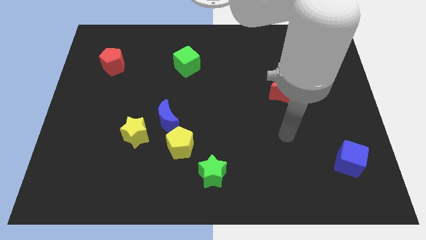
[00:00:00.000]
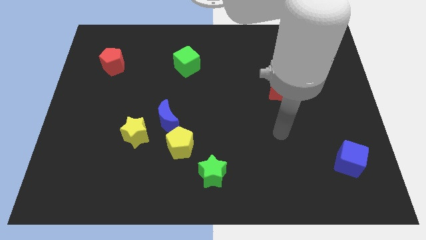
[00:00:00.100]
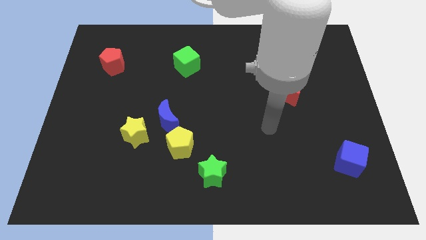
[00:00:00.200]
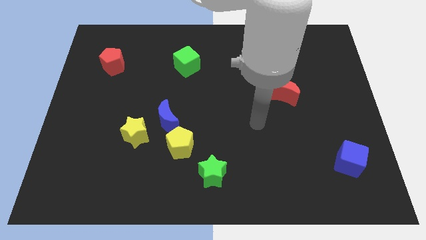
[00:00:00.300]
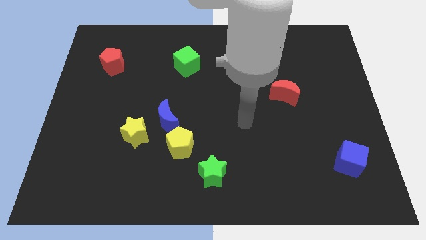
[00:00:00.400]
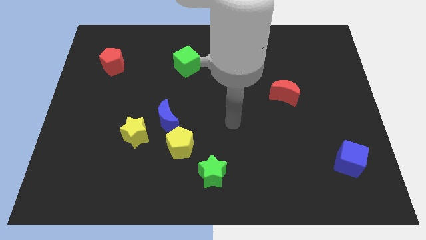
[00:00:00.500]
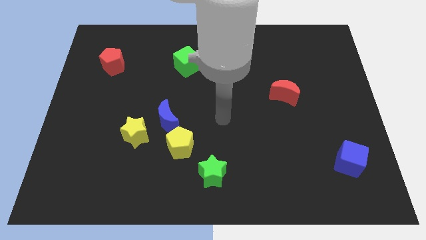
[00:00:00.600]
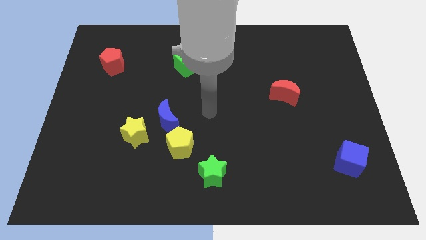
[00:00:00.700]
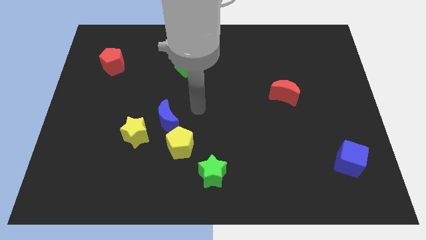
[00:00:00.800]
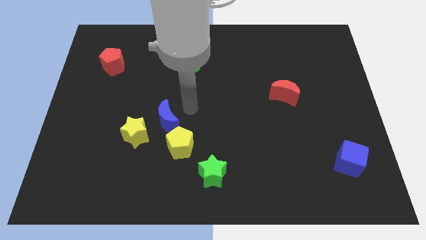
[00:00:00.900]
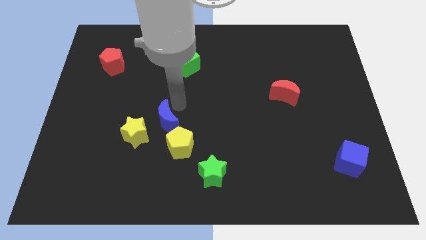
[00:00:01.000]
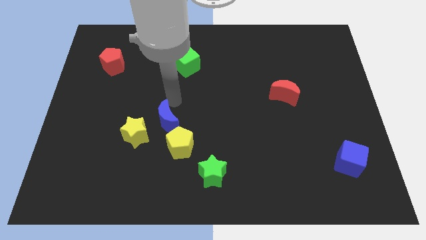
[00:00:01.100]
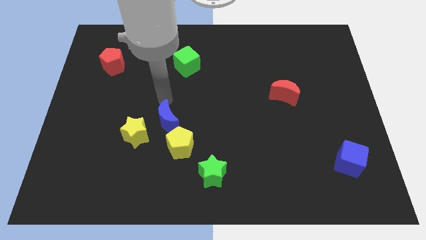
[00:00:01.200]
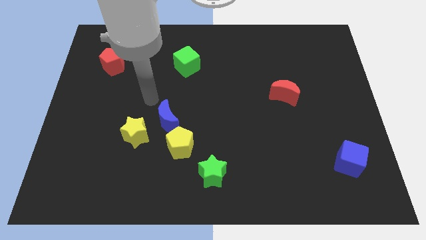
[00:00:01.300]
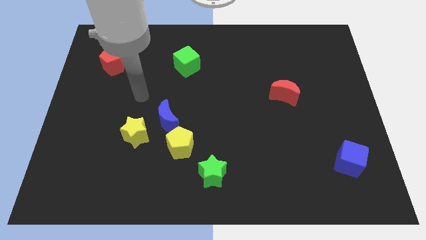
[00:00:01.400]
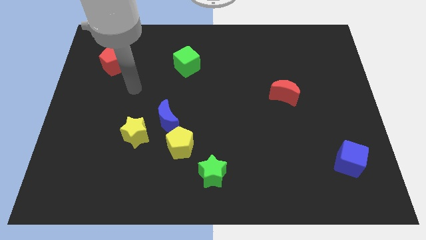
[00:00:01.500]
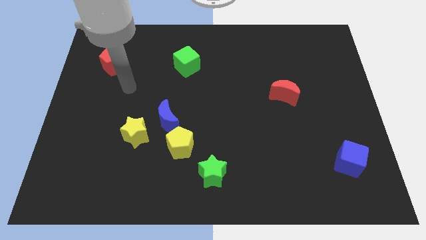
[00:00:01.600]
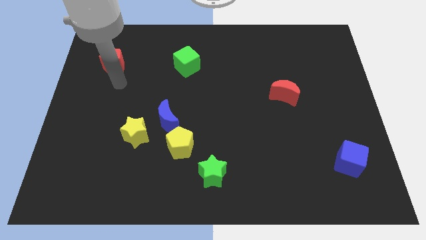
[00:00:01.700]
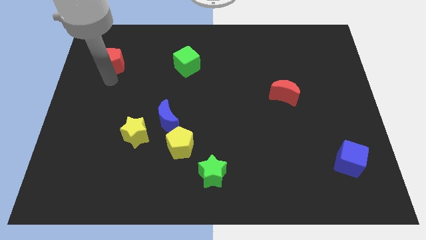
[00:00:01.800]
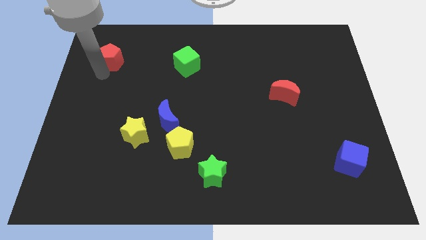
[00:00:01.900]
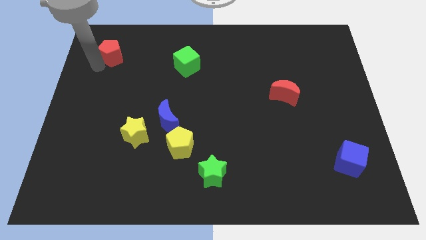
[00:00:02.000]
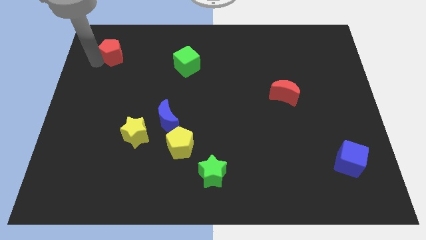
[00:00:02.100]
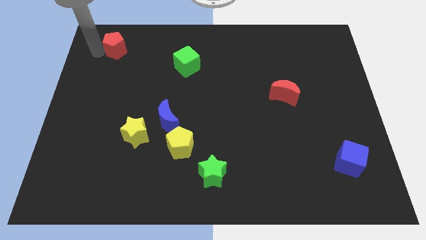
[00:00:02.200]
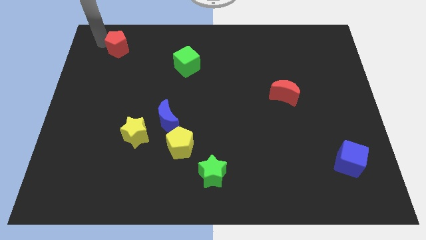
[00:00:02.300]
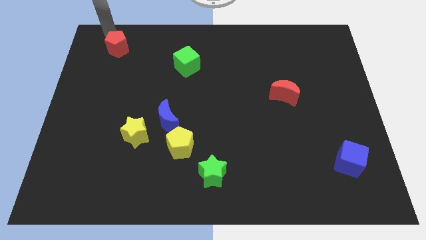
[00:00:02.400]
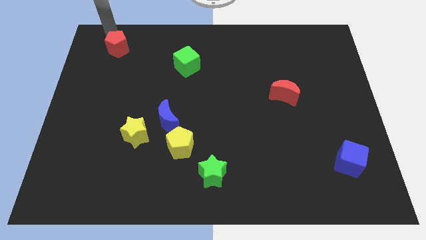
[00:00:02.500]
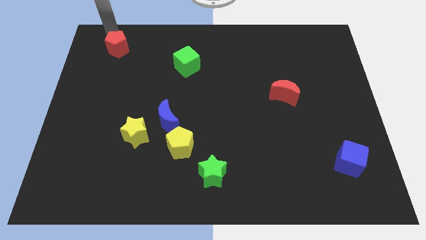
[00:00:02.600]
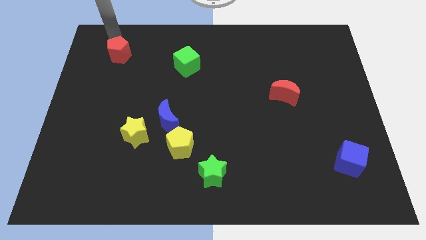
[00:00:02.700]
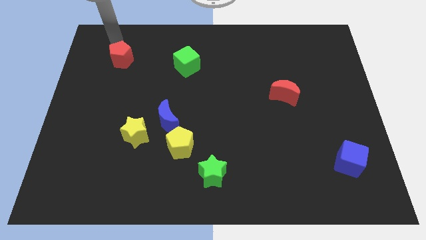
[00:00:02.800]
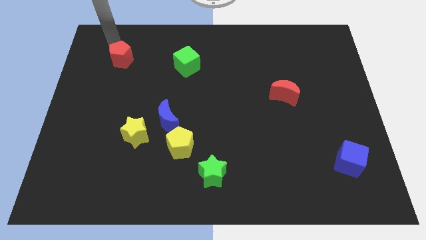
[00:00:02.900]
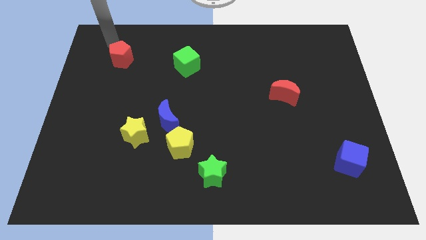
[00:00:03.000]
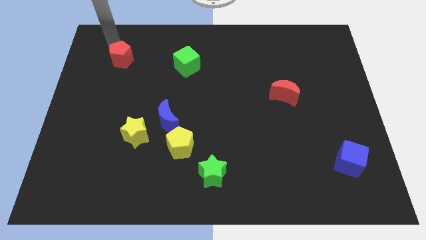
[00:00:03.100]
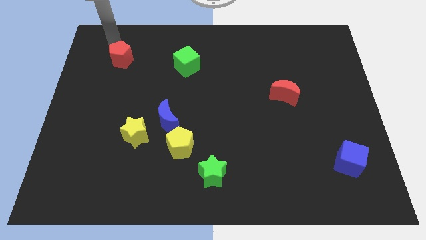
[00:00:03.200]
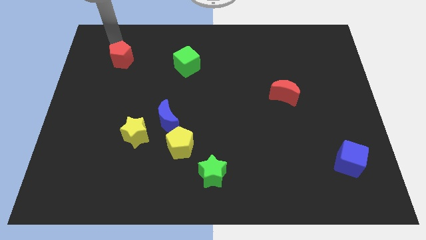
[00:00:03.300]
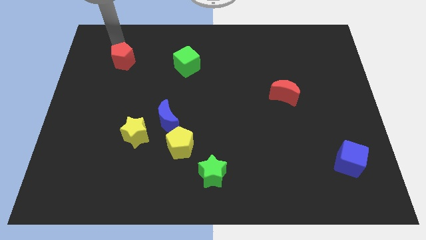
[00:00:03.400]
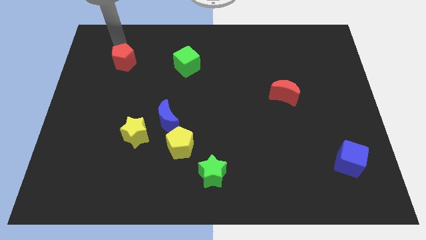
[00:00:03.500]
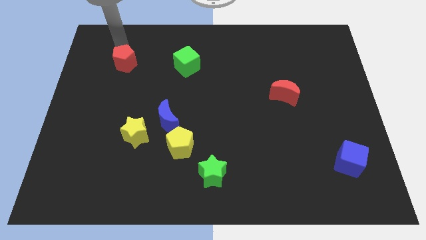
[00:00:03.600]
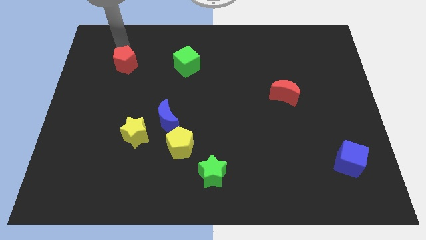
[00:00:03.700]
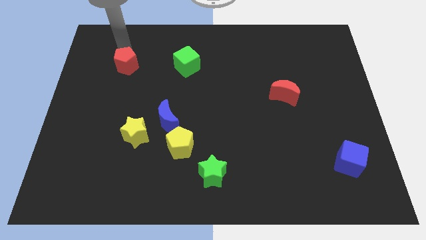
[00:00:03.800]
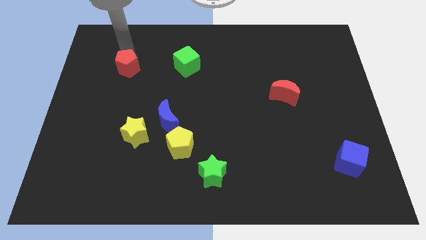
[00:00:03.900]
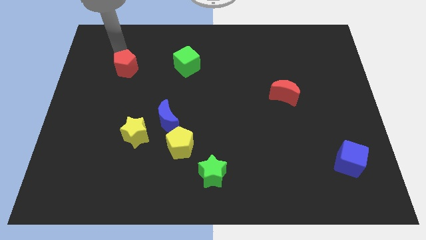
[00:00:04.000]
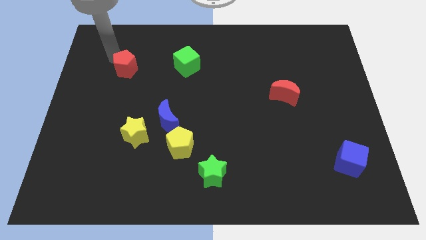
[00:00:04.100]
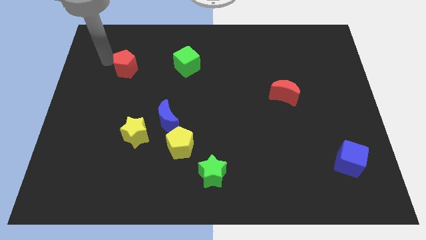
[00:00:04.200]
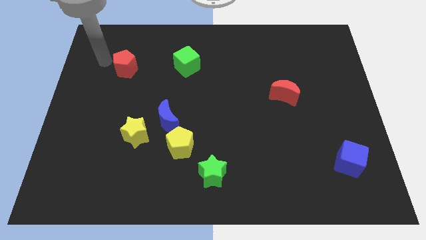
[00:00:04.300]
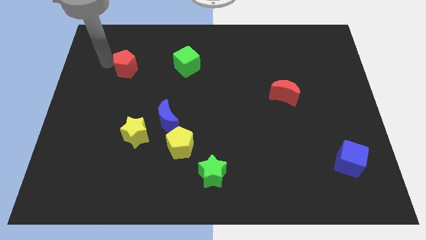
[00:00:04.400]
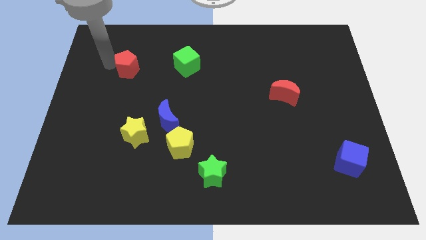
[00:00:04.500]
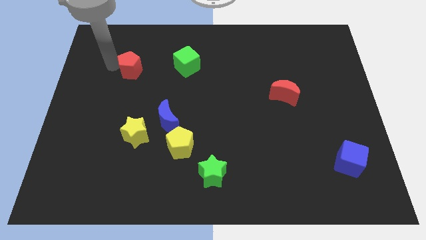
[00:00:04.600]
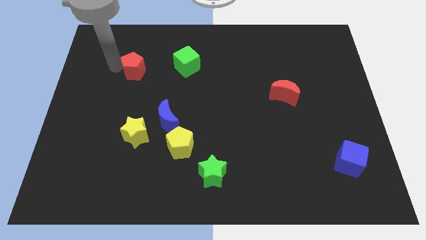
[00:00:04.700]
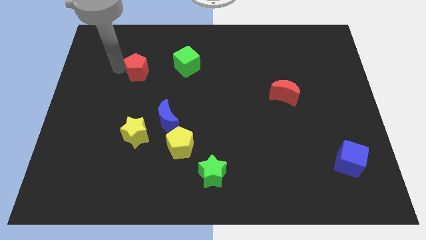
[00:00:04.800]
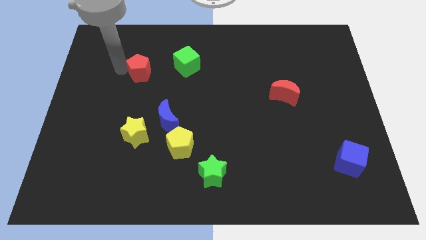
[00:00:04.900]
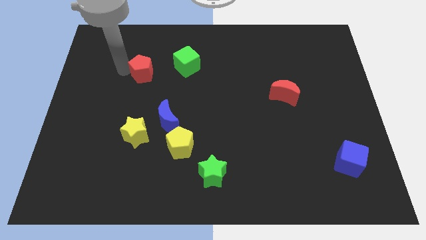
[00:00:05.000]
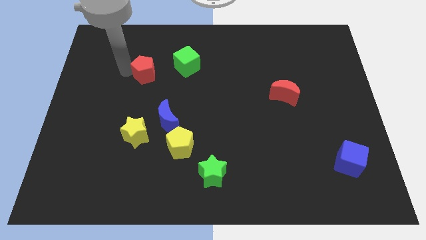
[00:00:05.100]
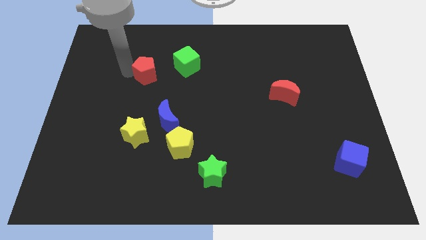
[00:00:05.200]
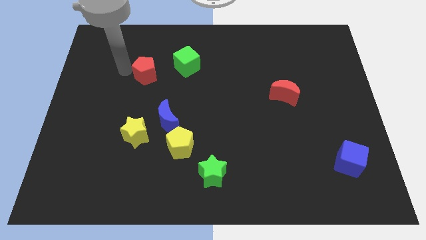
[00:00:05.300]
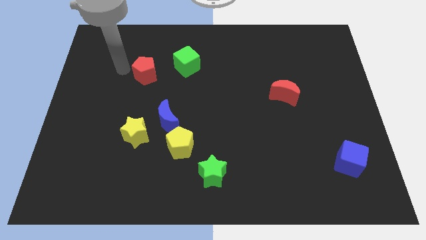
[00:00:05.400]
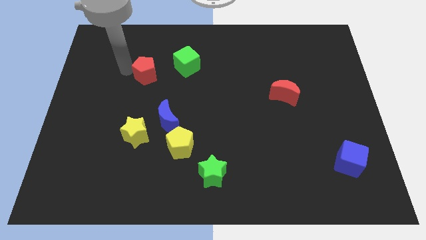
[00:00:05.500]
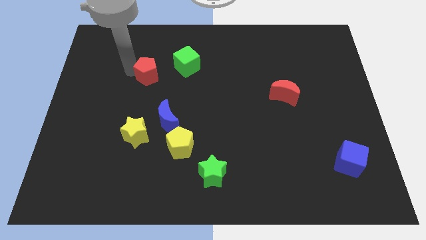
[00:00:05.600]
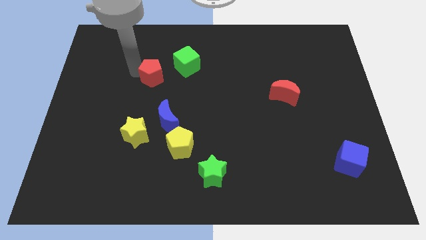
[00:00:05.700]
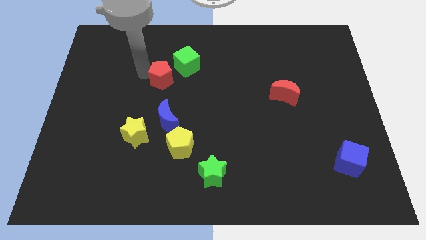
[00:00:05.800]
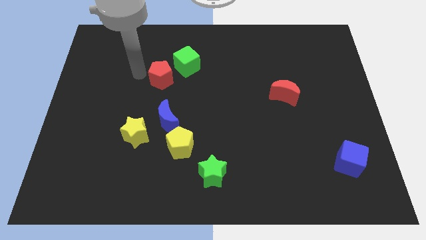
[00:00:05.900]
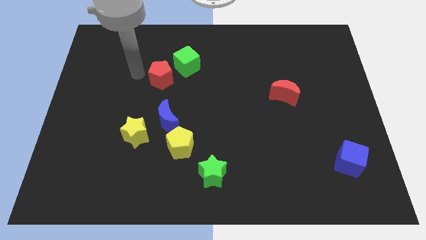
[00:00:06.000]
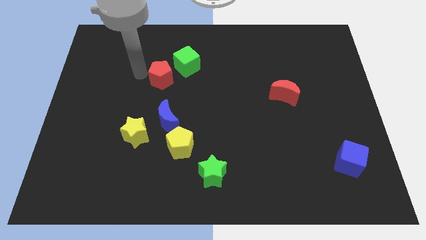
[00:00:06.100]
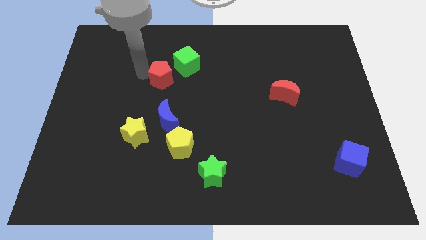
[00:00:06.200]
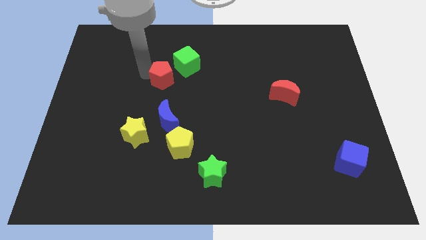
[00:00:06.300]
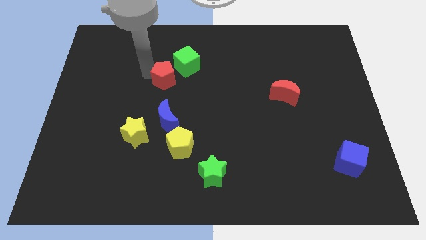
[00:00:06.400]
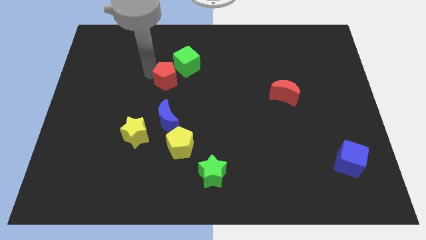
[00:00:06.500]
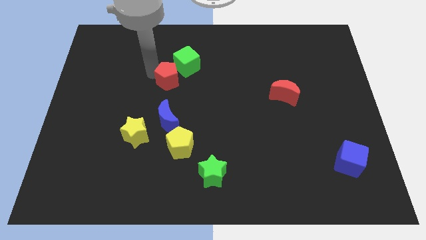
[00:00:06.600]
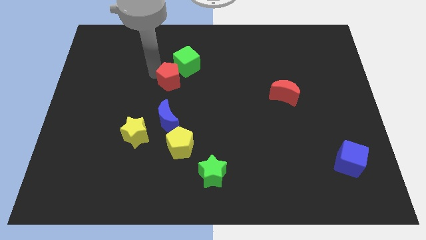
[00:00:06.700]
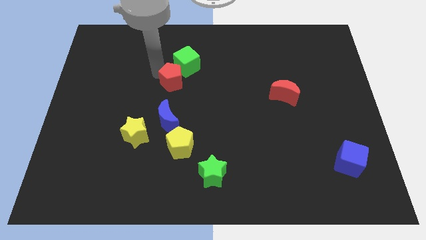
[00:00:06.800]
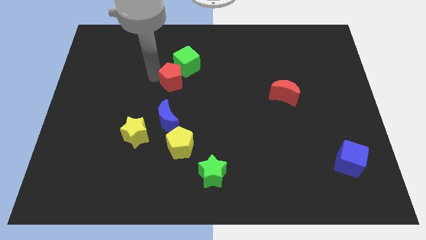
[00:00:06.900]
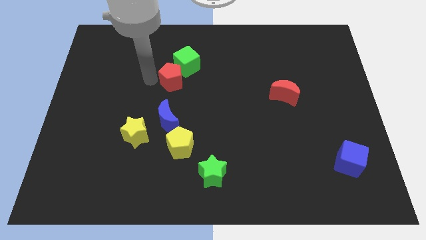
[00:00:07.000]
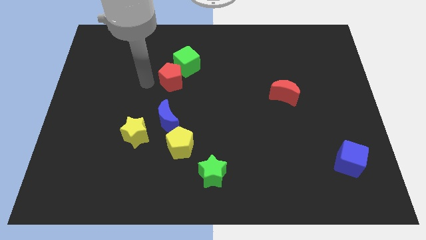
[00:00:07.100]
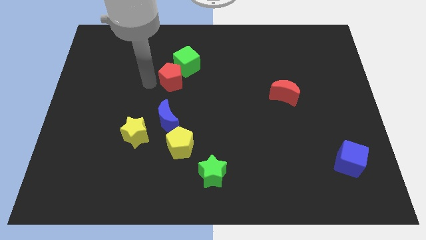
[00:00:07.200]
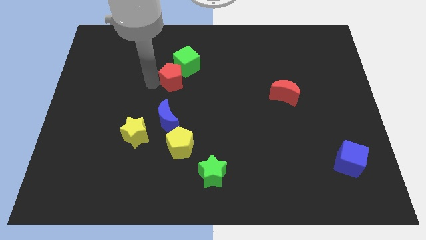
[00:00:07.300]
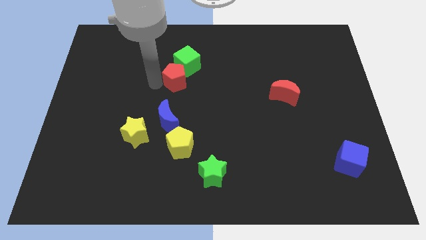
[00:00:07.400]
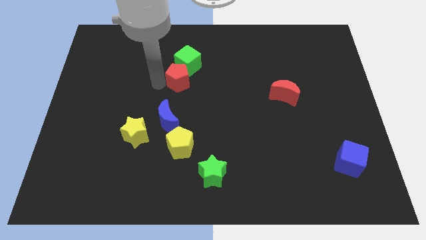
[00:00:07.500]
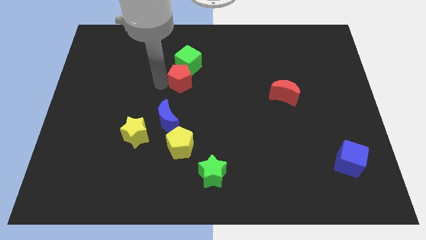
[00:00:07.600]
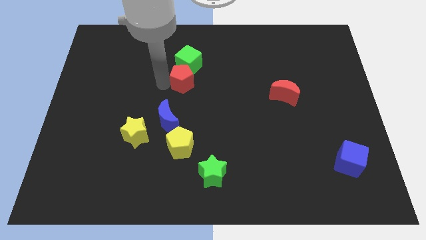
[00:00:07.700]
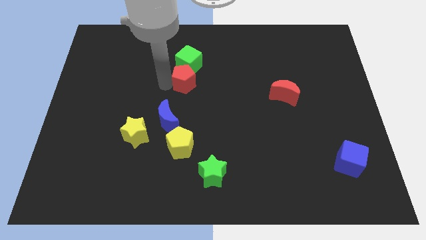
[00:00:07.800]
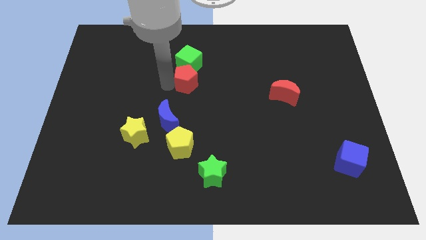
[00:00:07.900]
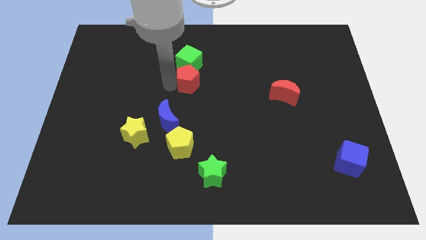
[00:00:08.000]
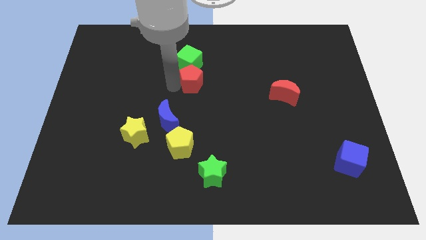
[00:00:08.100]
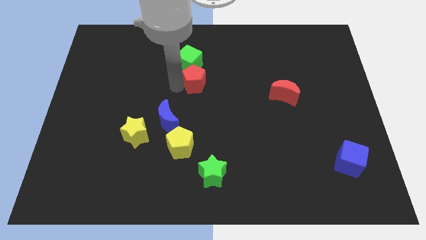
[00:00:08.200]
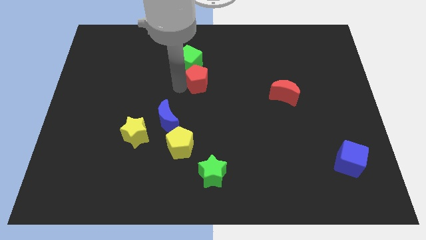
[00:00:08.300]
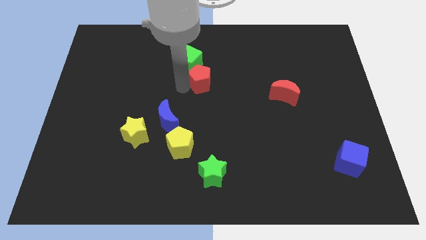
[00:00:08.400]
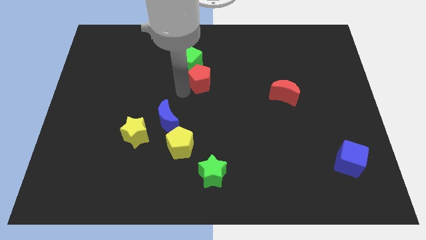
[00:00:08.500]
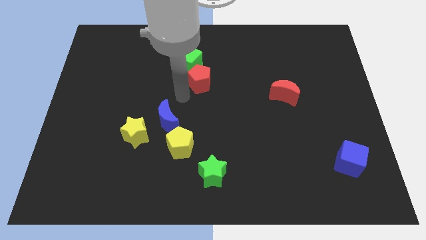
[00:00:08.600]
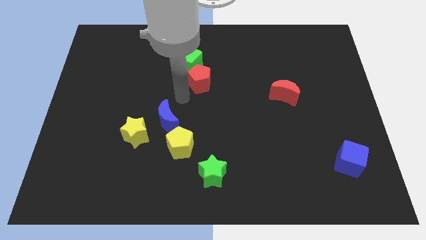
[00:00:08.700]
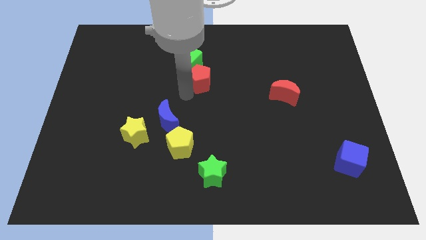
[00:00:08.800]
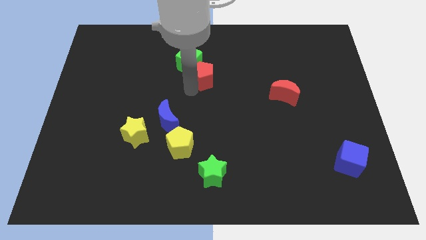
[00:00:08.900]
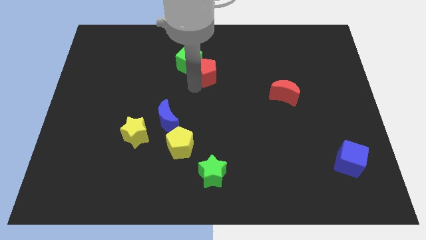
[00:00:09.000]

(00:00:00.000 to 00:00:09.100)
move the red pentagon to the right side of the green cube
